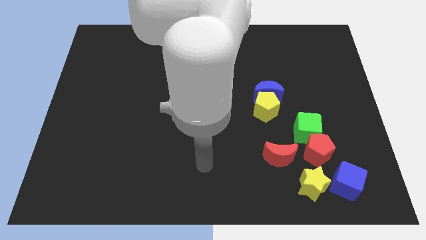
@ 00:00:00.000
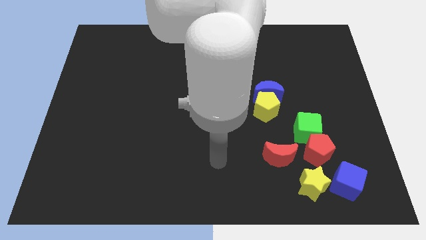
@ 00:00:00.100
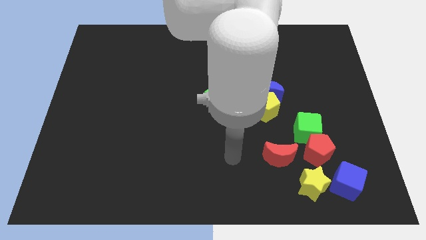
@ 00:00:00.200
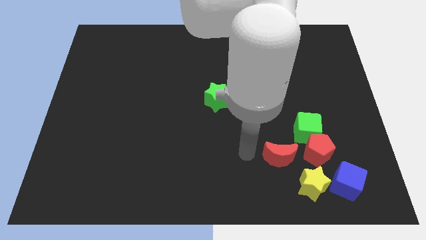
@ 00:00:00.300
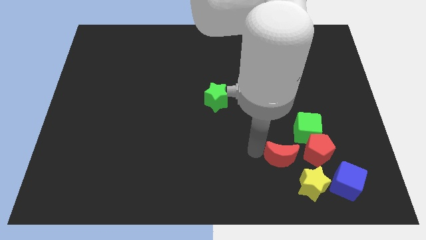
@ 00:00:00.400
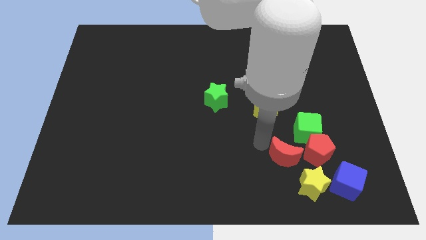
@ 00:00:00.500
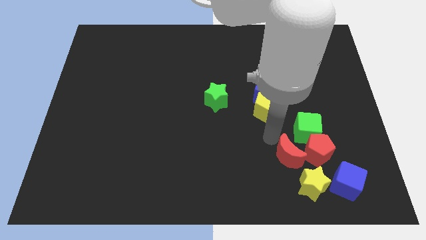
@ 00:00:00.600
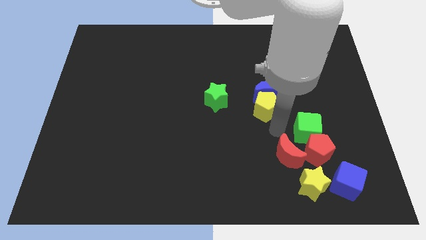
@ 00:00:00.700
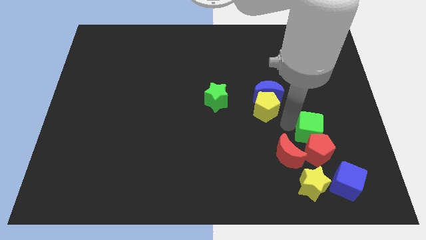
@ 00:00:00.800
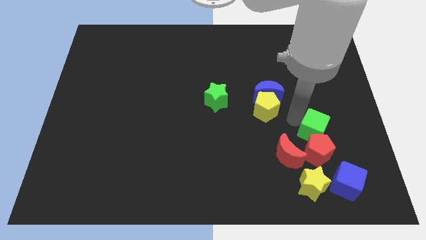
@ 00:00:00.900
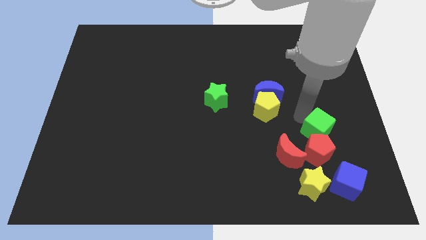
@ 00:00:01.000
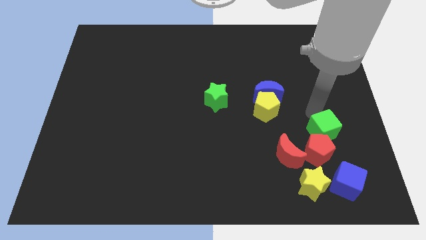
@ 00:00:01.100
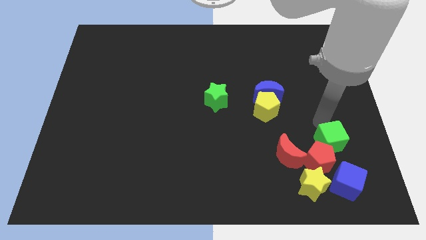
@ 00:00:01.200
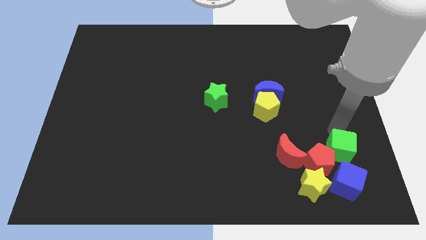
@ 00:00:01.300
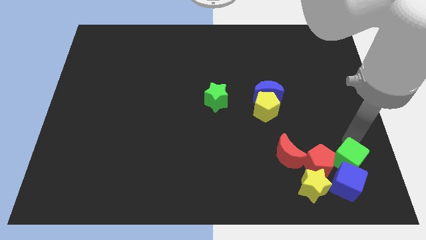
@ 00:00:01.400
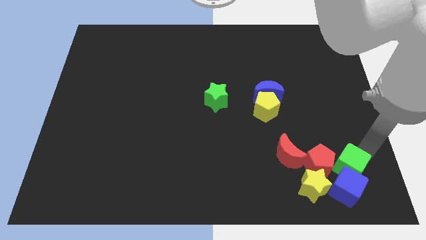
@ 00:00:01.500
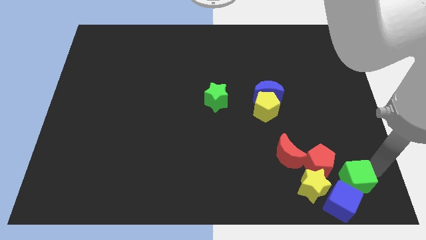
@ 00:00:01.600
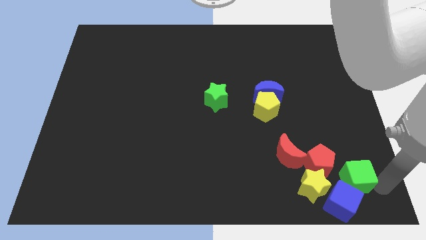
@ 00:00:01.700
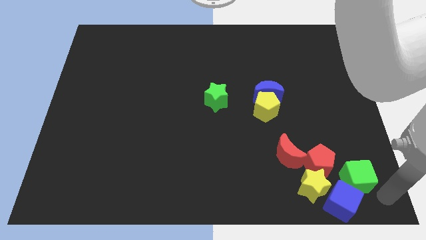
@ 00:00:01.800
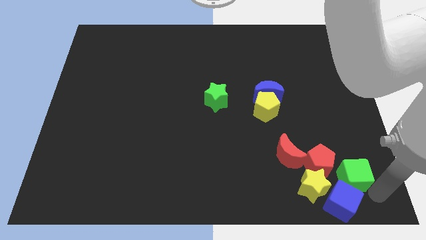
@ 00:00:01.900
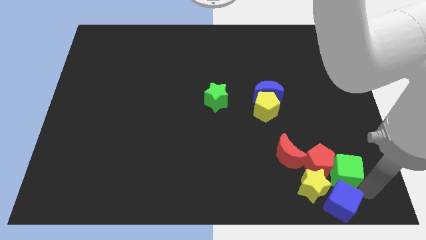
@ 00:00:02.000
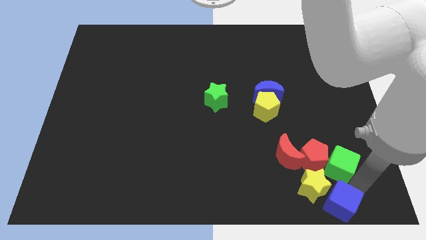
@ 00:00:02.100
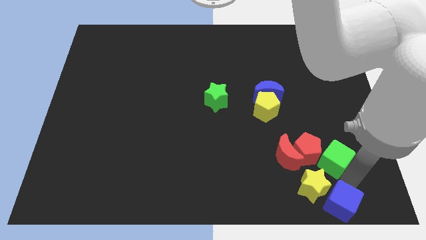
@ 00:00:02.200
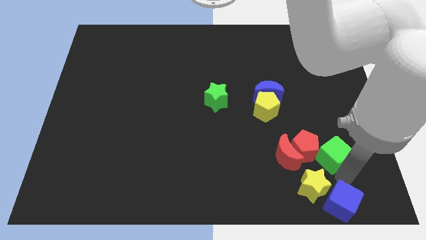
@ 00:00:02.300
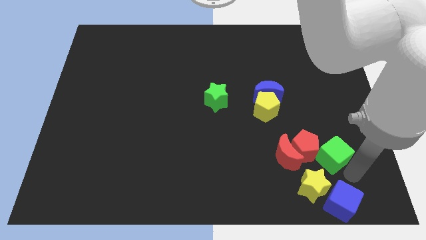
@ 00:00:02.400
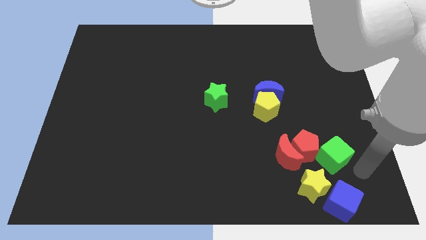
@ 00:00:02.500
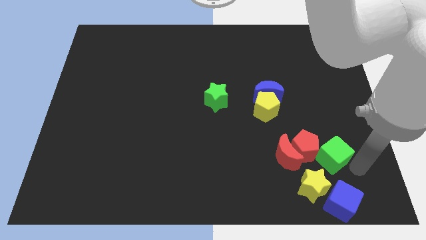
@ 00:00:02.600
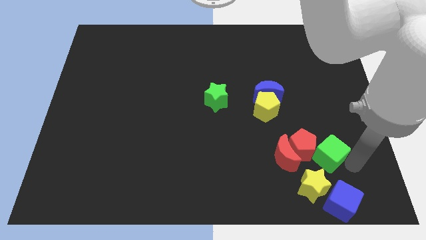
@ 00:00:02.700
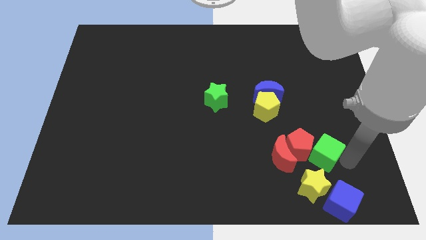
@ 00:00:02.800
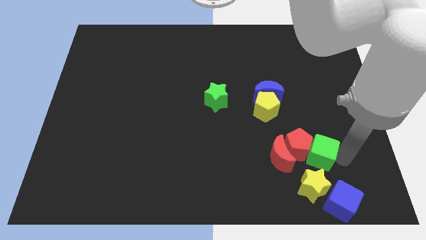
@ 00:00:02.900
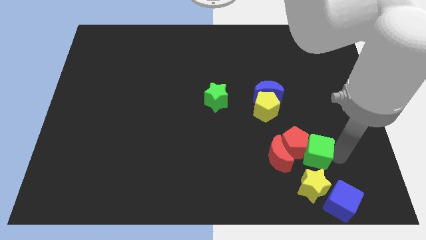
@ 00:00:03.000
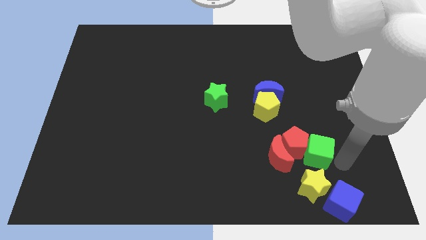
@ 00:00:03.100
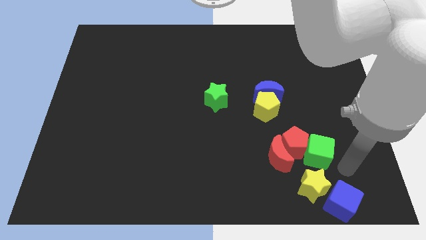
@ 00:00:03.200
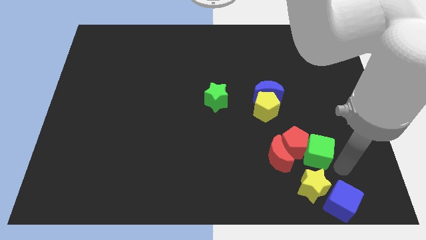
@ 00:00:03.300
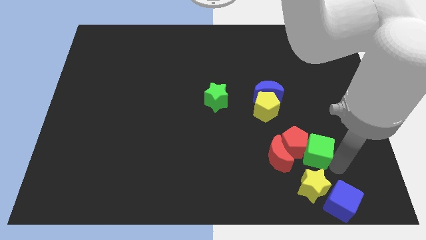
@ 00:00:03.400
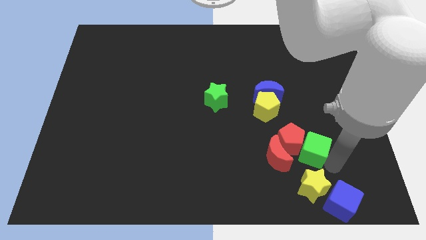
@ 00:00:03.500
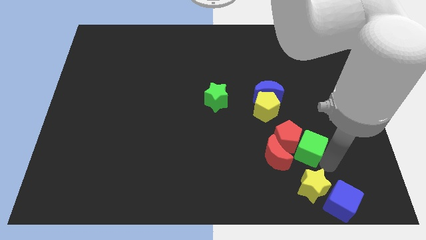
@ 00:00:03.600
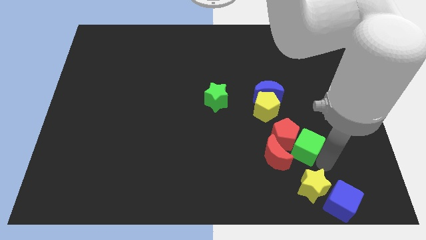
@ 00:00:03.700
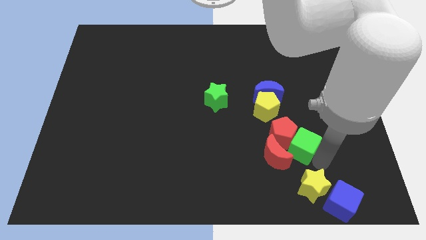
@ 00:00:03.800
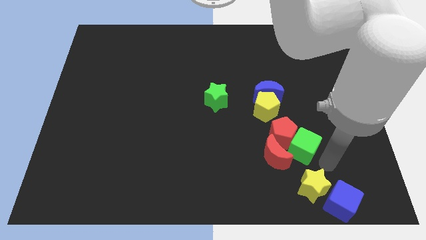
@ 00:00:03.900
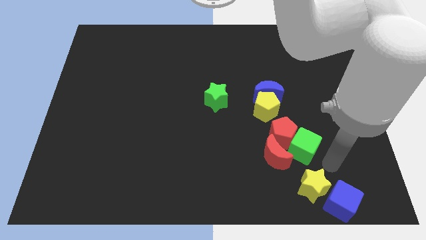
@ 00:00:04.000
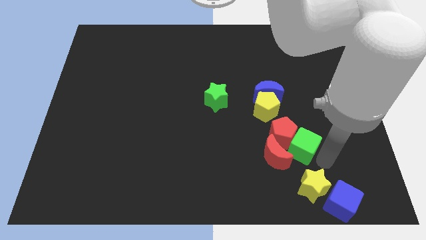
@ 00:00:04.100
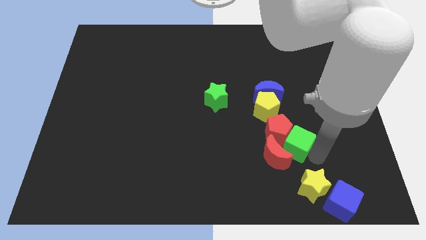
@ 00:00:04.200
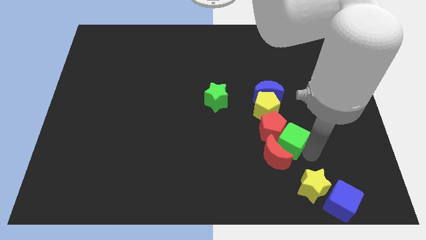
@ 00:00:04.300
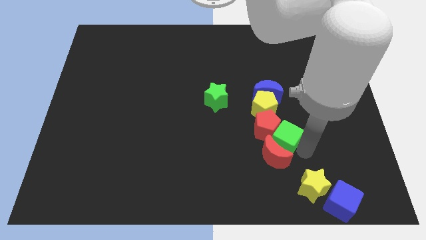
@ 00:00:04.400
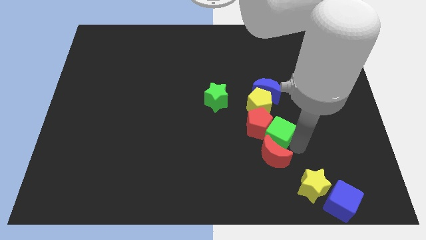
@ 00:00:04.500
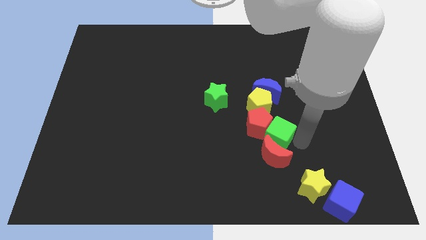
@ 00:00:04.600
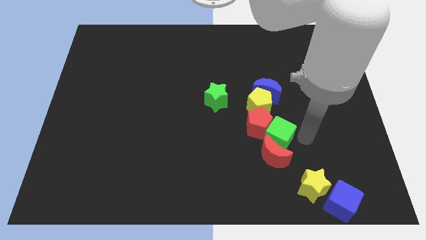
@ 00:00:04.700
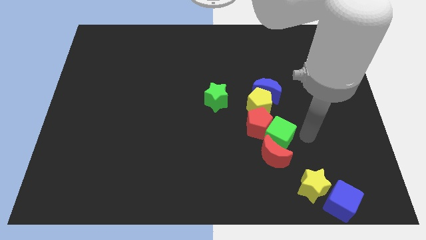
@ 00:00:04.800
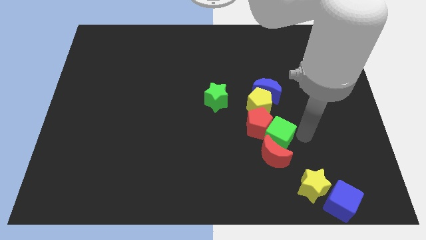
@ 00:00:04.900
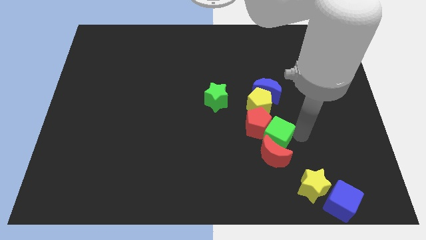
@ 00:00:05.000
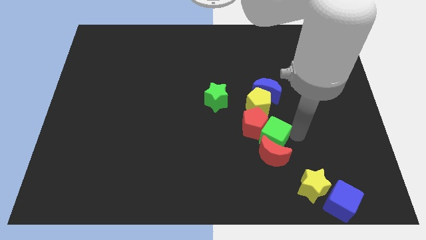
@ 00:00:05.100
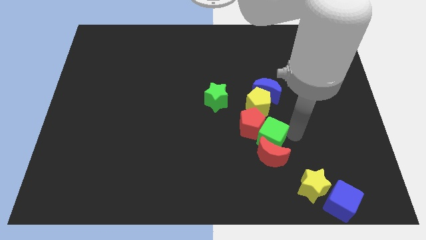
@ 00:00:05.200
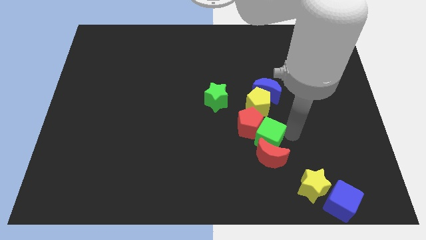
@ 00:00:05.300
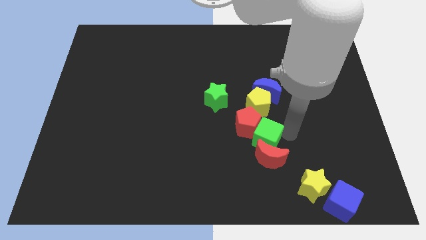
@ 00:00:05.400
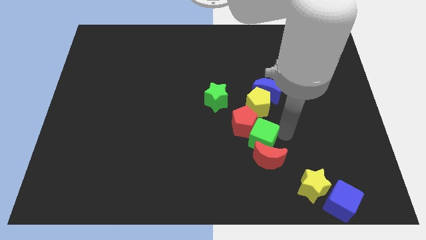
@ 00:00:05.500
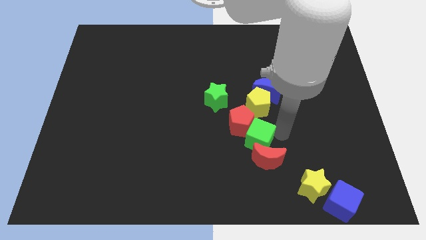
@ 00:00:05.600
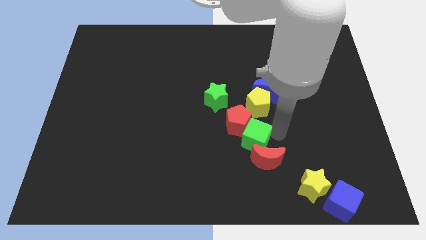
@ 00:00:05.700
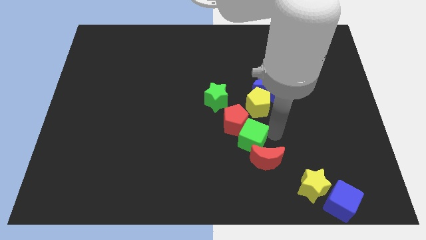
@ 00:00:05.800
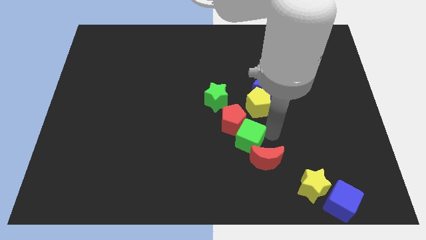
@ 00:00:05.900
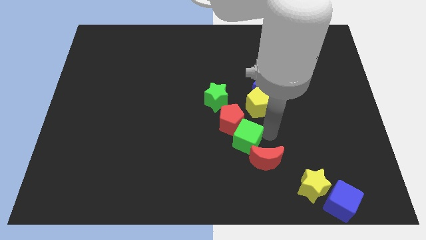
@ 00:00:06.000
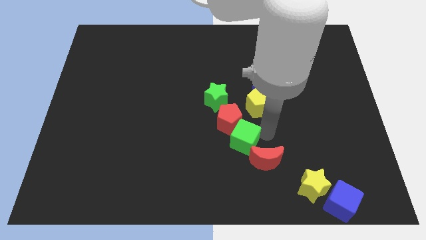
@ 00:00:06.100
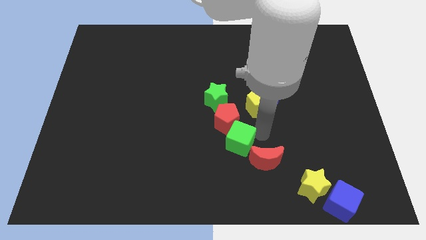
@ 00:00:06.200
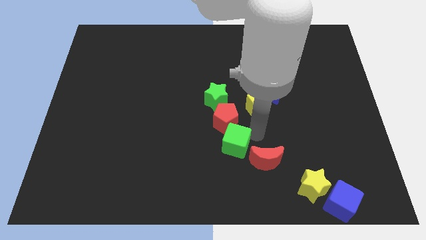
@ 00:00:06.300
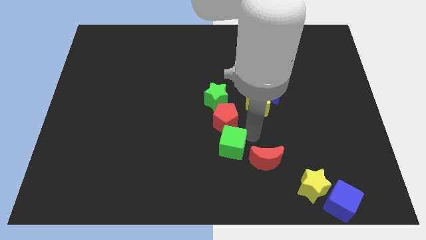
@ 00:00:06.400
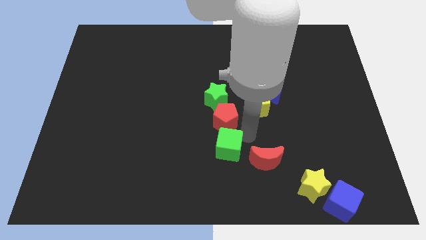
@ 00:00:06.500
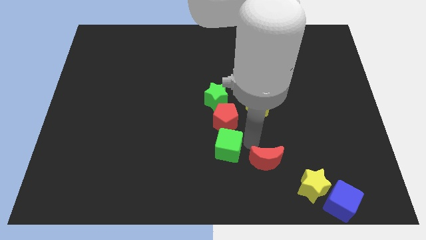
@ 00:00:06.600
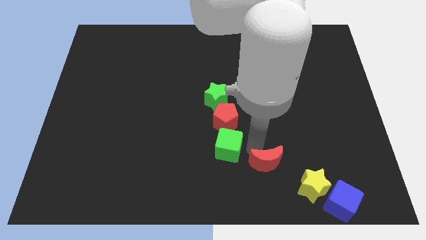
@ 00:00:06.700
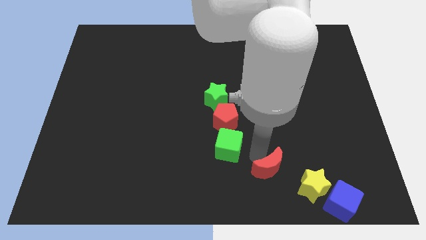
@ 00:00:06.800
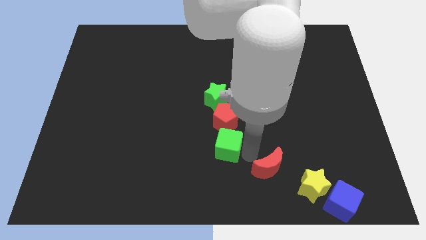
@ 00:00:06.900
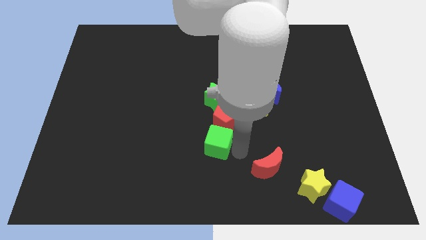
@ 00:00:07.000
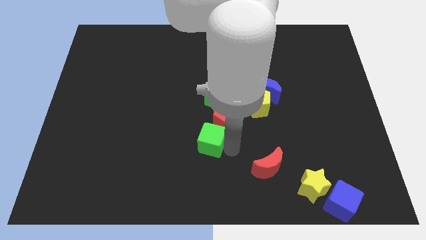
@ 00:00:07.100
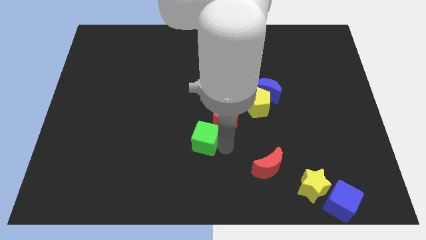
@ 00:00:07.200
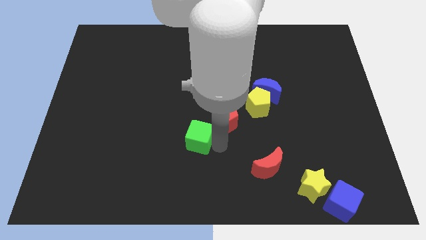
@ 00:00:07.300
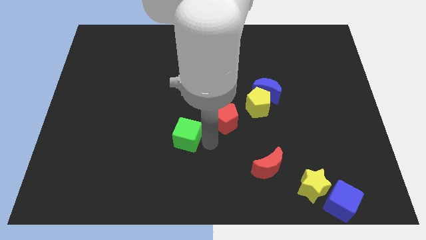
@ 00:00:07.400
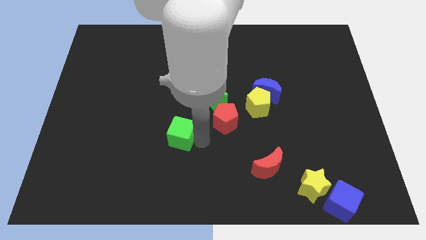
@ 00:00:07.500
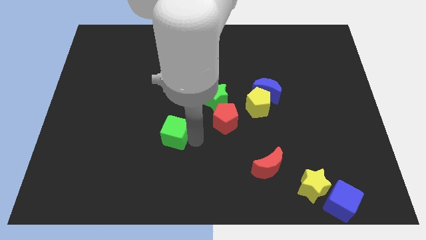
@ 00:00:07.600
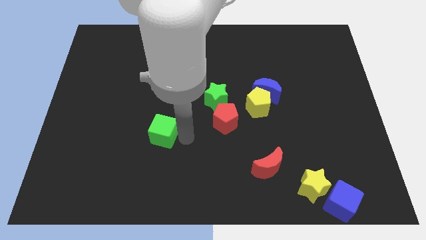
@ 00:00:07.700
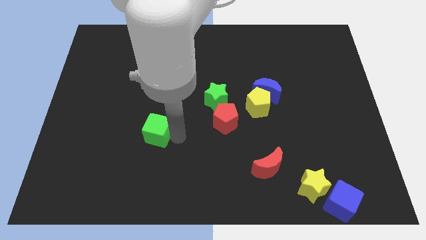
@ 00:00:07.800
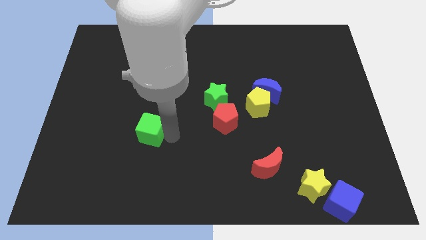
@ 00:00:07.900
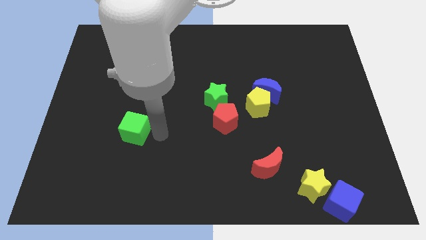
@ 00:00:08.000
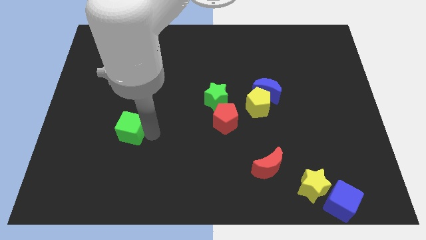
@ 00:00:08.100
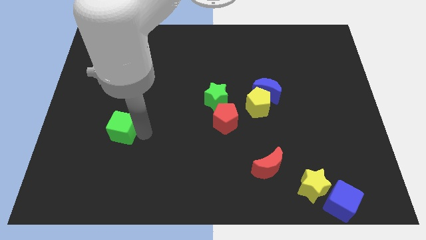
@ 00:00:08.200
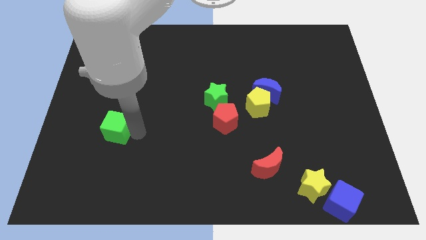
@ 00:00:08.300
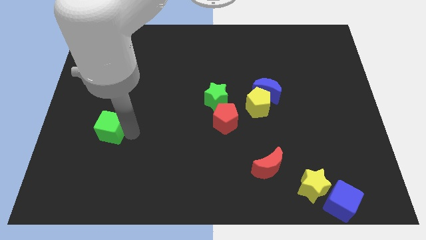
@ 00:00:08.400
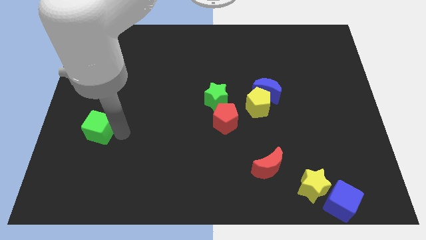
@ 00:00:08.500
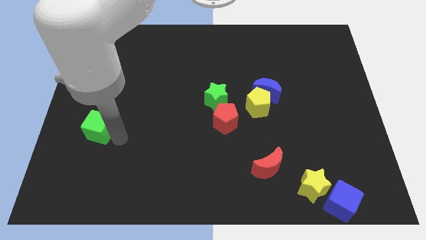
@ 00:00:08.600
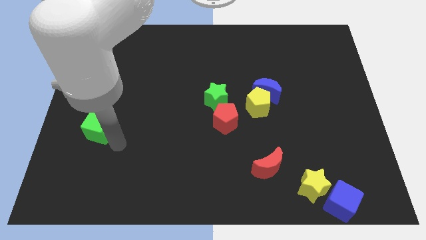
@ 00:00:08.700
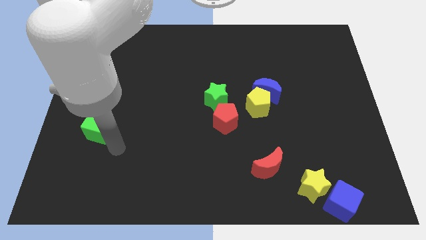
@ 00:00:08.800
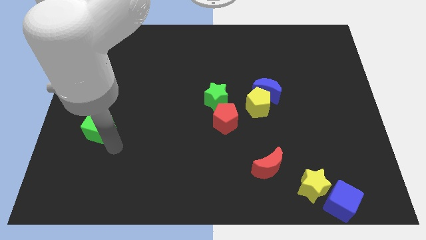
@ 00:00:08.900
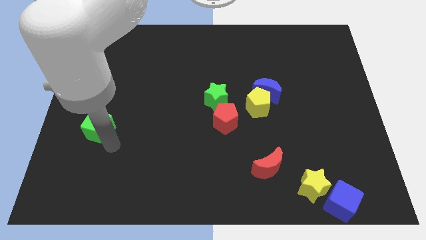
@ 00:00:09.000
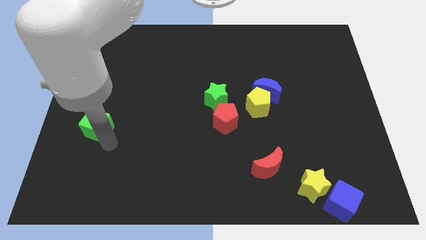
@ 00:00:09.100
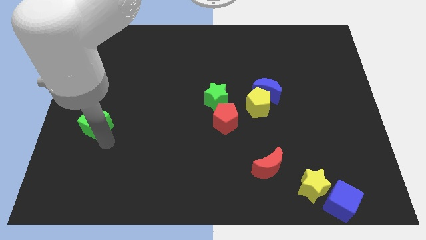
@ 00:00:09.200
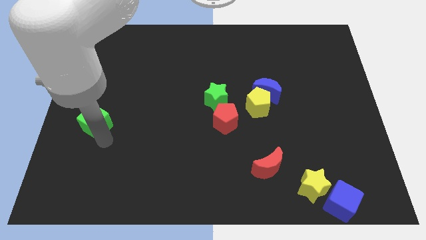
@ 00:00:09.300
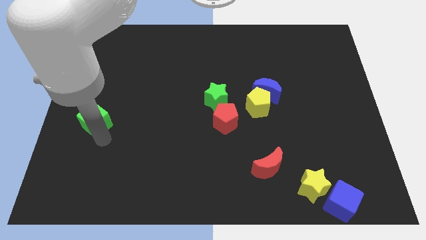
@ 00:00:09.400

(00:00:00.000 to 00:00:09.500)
put the green cube to the left side
